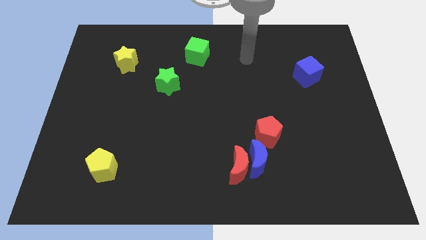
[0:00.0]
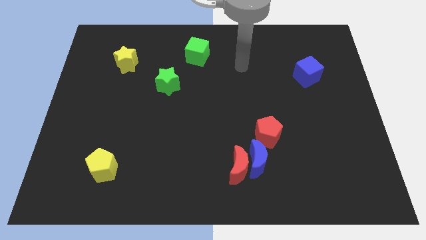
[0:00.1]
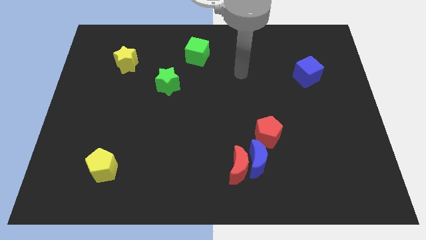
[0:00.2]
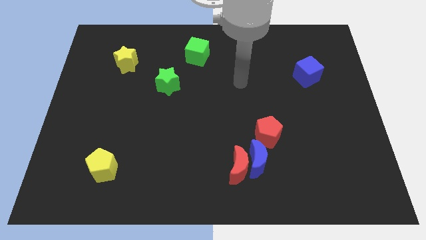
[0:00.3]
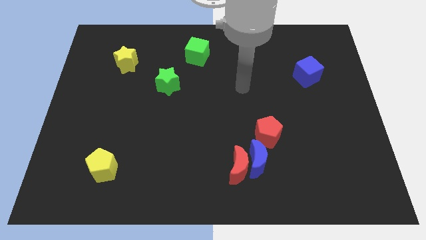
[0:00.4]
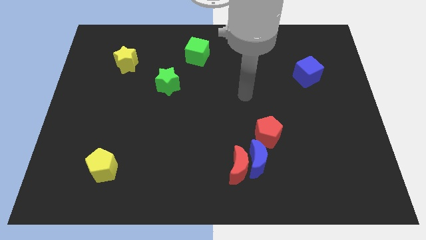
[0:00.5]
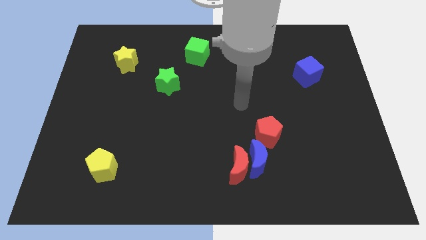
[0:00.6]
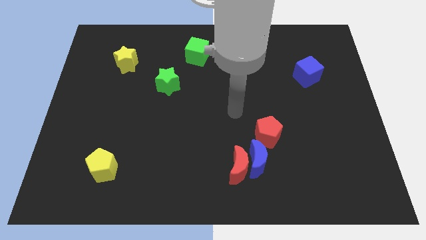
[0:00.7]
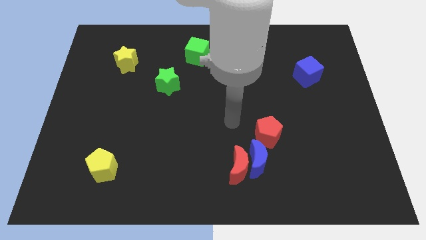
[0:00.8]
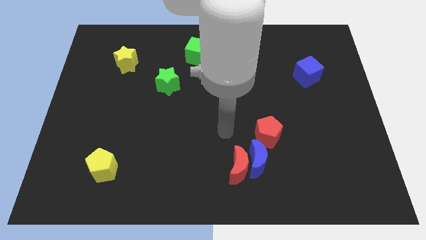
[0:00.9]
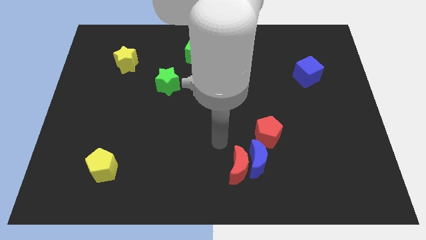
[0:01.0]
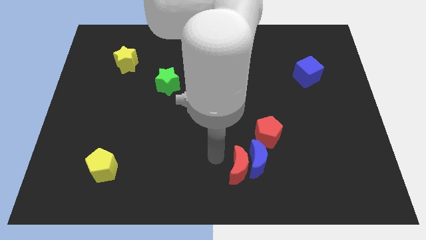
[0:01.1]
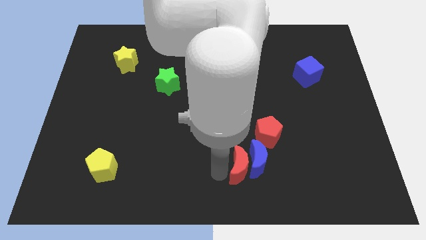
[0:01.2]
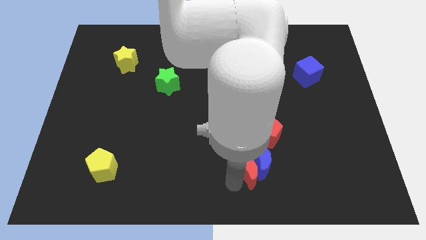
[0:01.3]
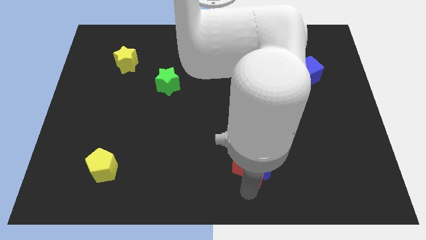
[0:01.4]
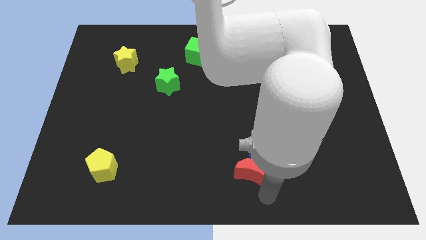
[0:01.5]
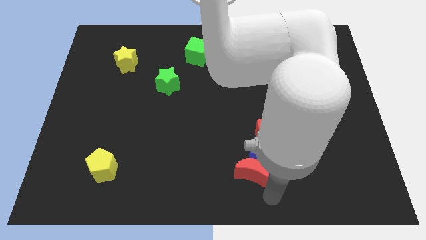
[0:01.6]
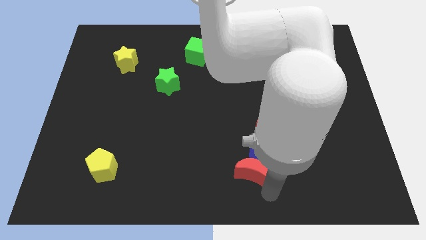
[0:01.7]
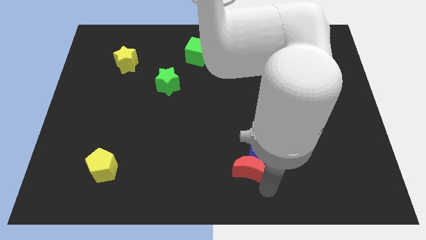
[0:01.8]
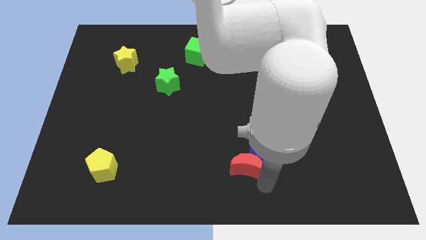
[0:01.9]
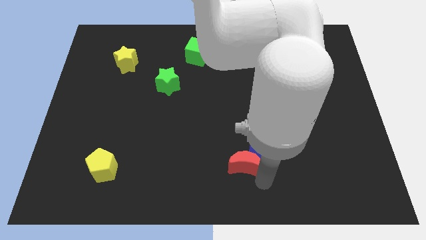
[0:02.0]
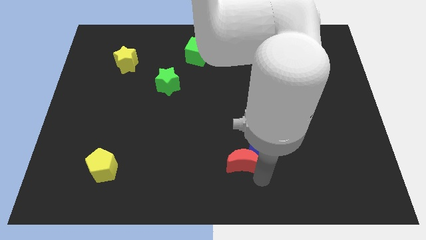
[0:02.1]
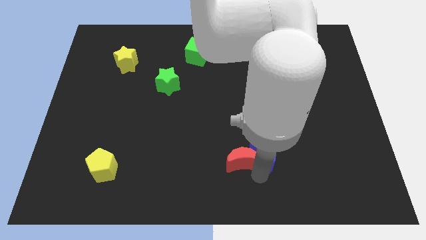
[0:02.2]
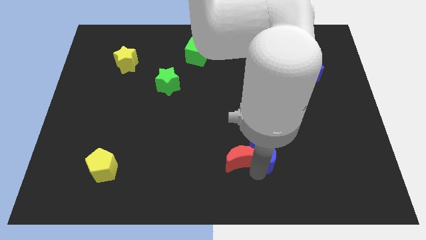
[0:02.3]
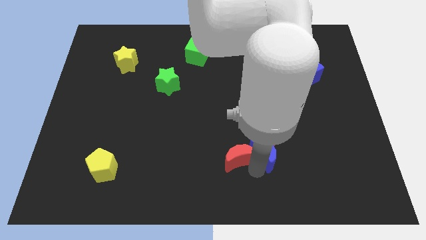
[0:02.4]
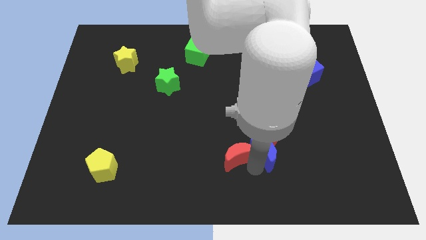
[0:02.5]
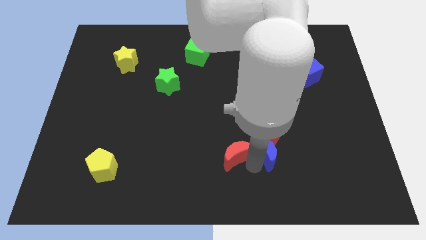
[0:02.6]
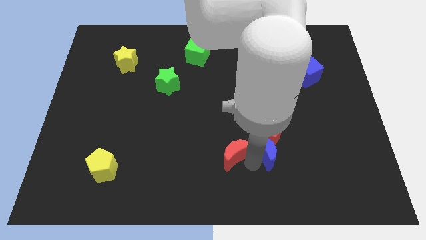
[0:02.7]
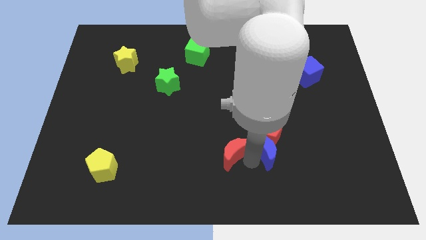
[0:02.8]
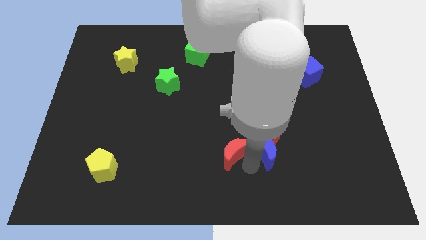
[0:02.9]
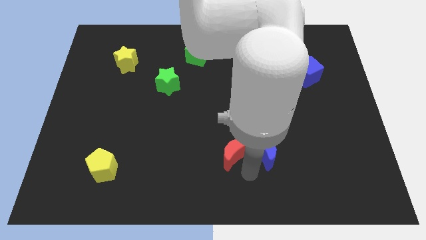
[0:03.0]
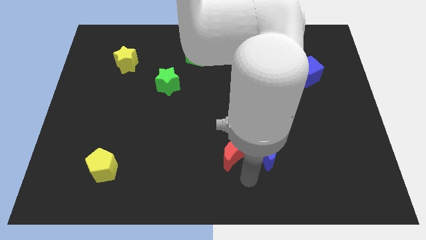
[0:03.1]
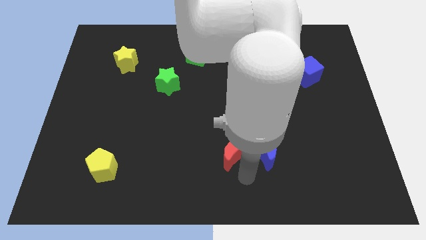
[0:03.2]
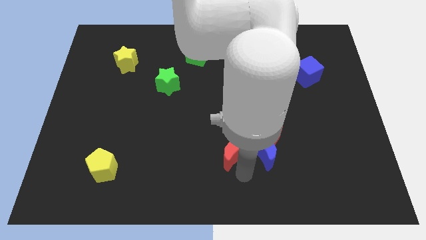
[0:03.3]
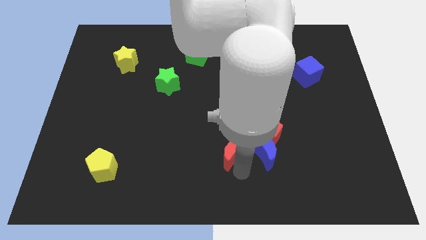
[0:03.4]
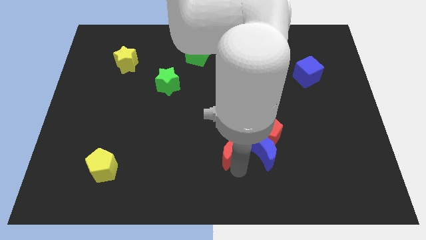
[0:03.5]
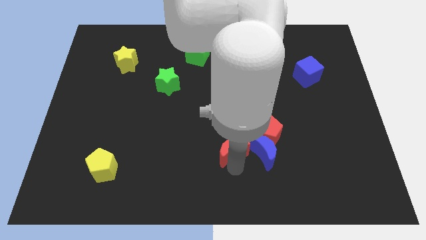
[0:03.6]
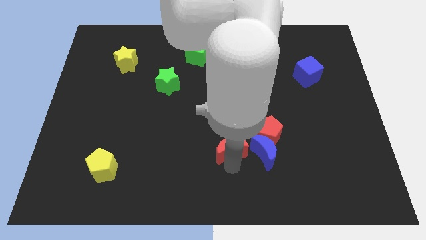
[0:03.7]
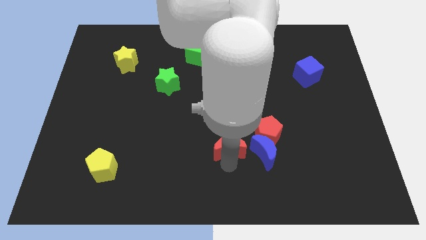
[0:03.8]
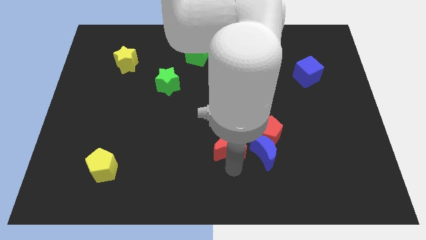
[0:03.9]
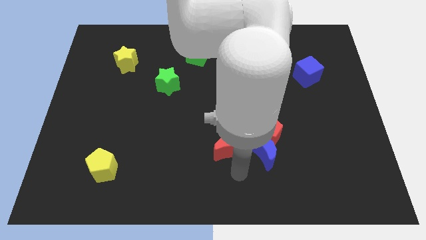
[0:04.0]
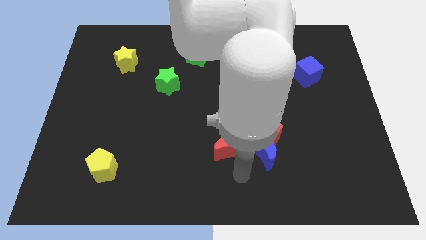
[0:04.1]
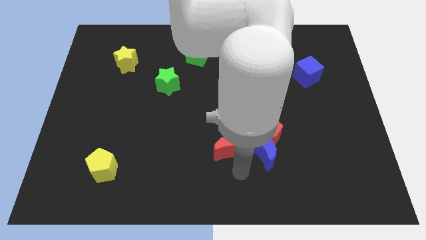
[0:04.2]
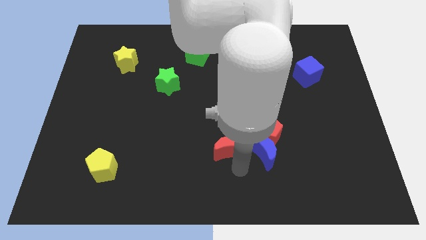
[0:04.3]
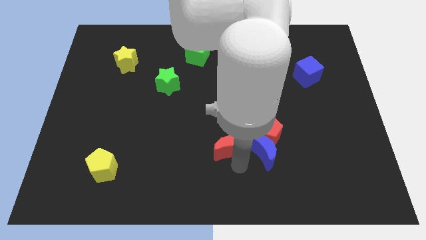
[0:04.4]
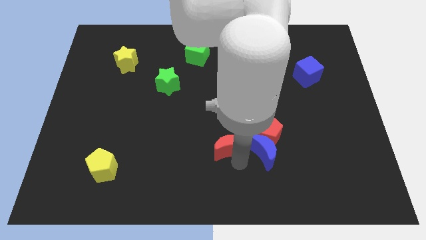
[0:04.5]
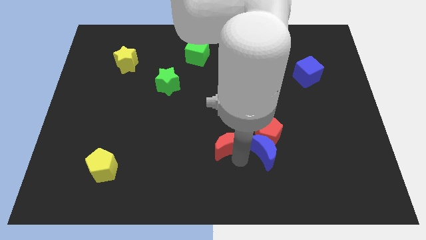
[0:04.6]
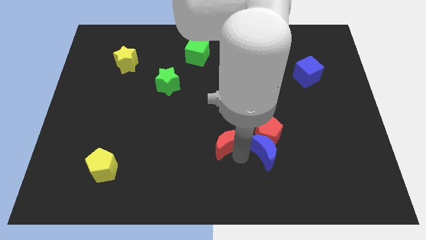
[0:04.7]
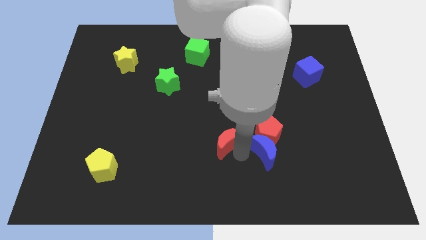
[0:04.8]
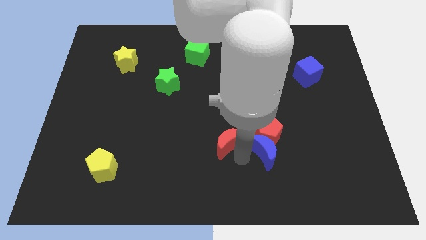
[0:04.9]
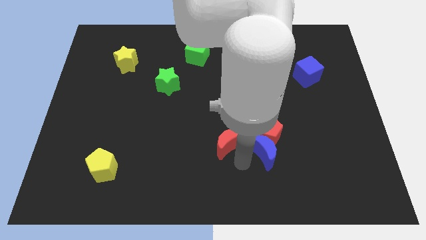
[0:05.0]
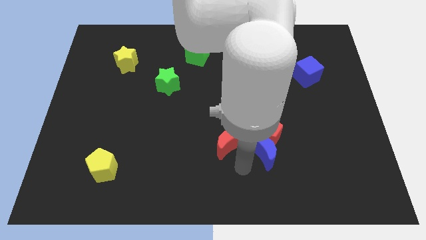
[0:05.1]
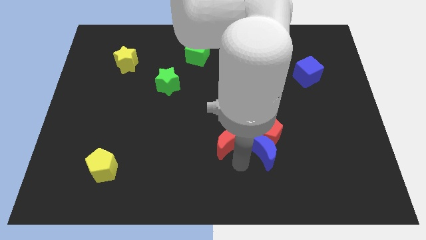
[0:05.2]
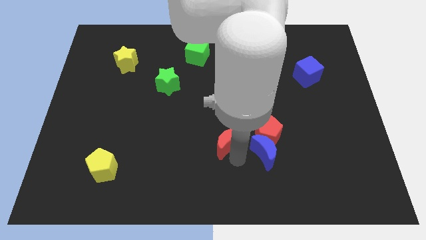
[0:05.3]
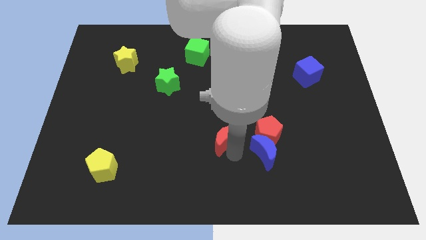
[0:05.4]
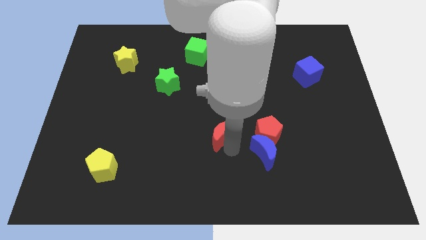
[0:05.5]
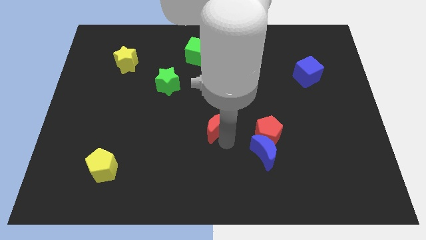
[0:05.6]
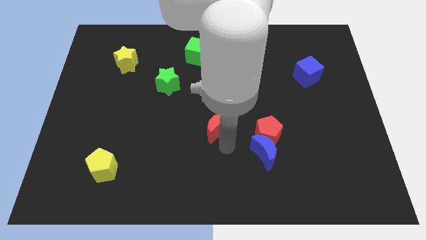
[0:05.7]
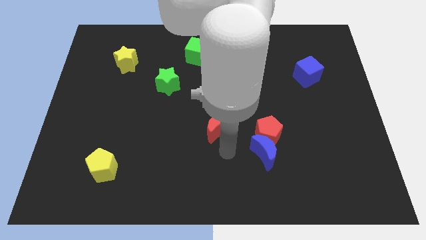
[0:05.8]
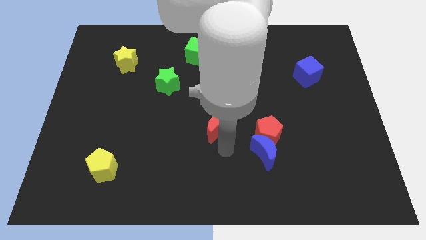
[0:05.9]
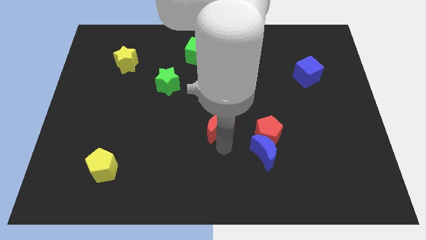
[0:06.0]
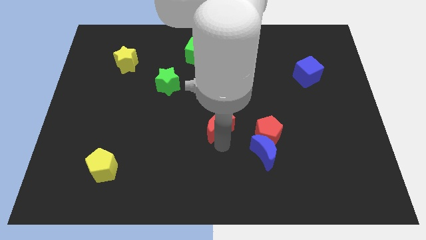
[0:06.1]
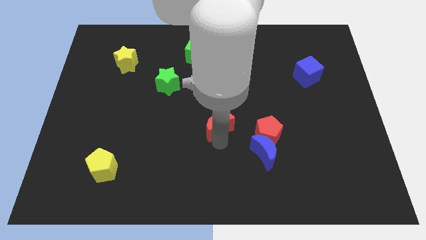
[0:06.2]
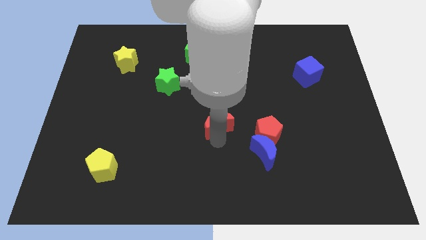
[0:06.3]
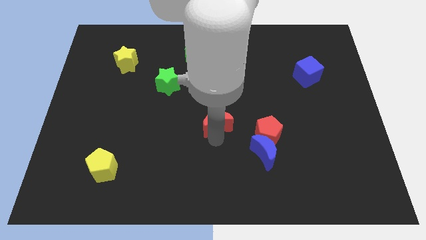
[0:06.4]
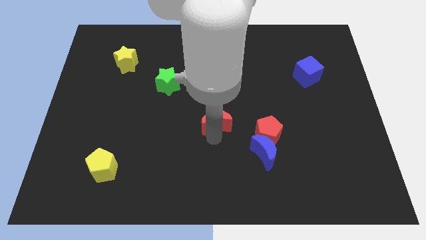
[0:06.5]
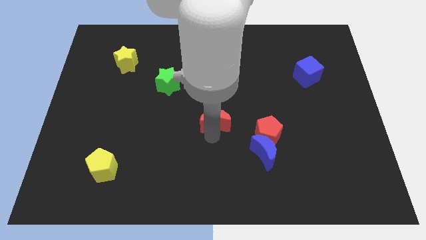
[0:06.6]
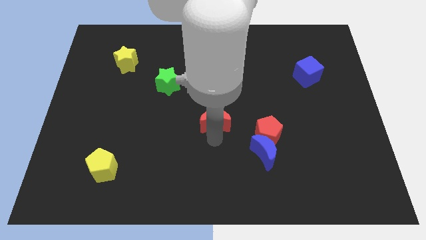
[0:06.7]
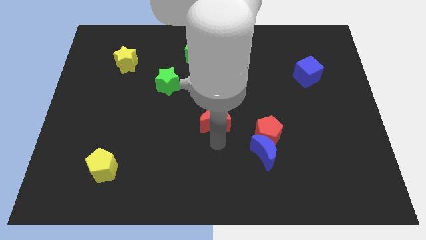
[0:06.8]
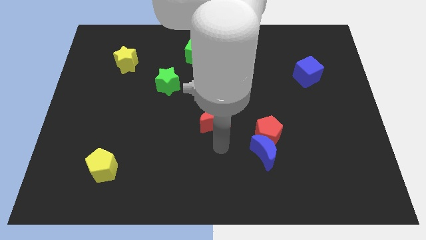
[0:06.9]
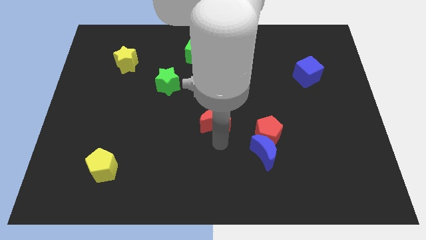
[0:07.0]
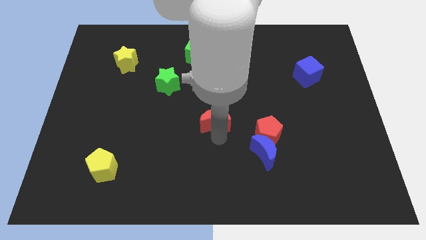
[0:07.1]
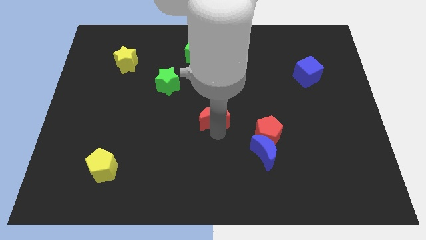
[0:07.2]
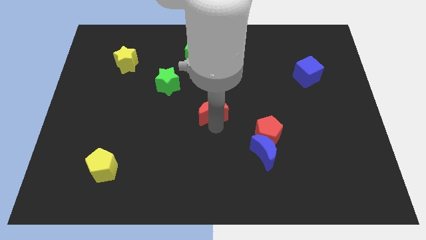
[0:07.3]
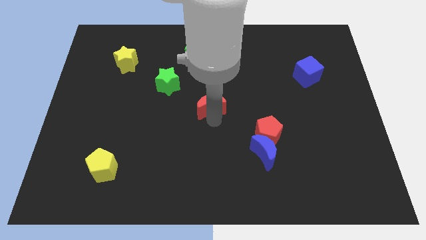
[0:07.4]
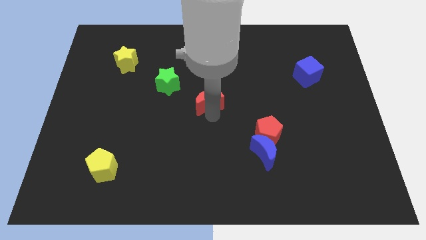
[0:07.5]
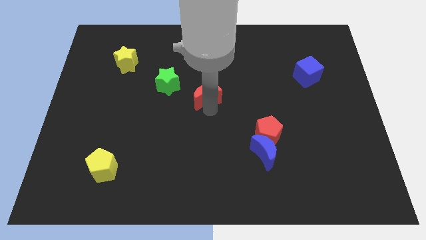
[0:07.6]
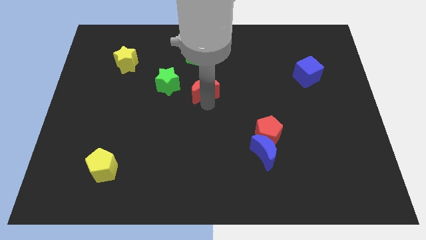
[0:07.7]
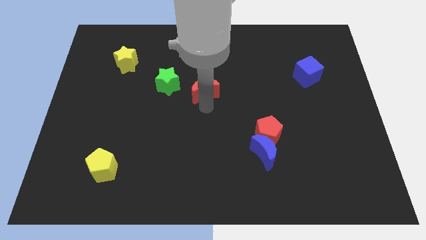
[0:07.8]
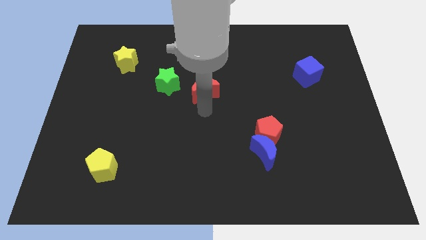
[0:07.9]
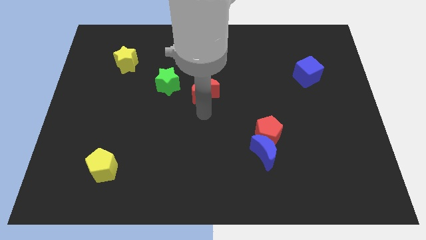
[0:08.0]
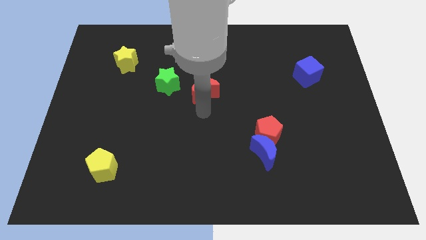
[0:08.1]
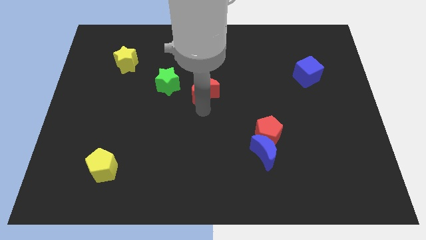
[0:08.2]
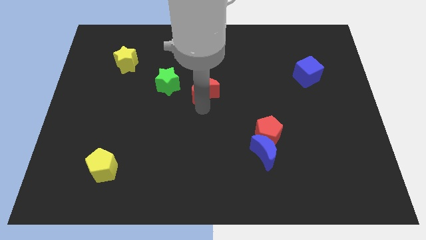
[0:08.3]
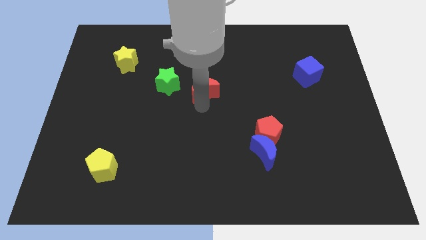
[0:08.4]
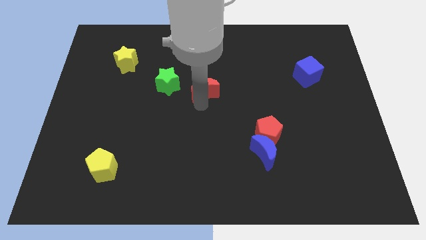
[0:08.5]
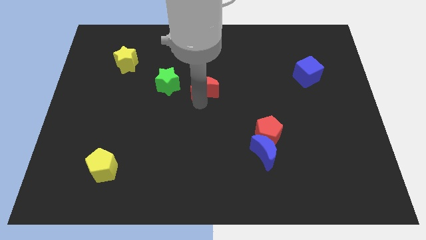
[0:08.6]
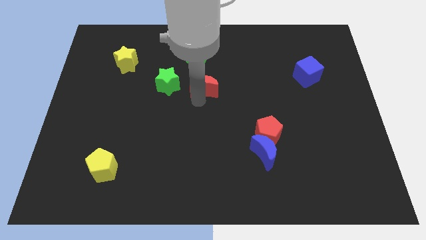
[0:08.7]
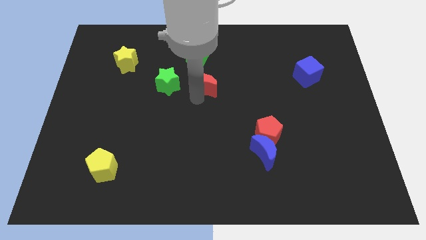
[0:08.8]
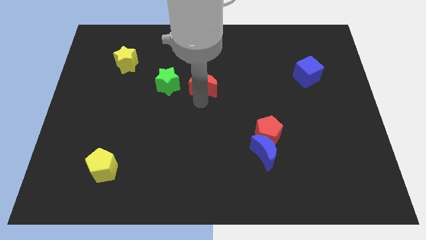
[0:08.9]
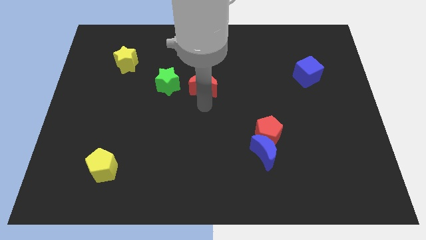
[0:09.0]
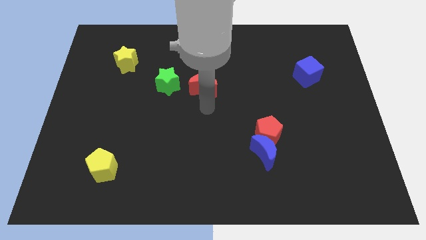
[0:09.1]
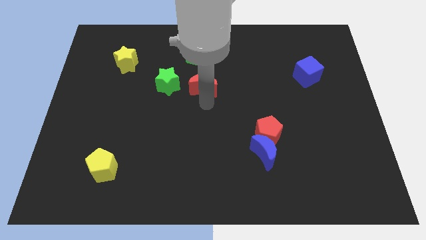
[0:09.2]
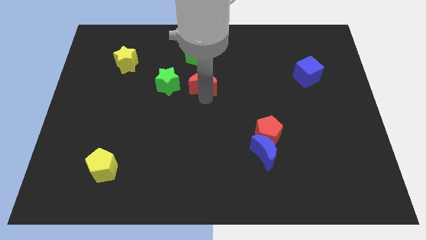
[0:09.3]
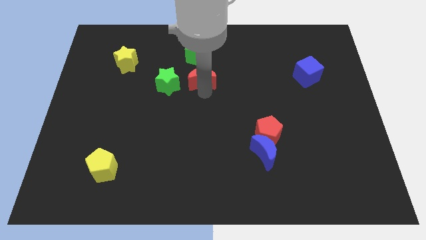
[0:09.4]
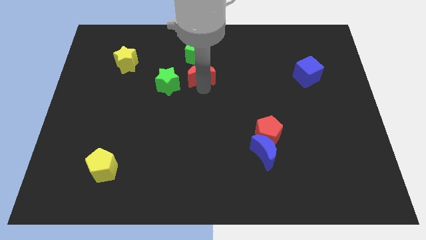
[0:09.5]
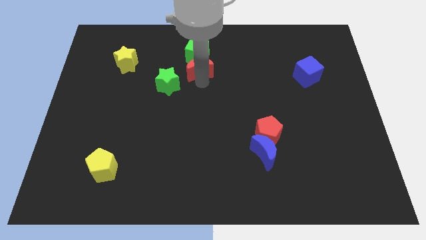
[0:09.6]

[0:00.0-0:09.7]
move the red moon close to the green cube
